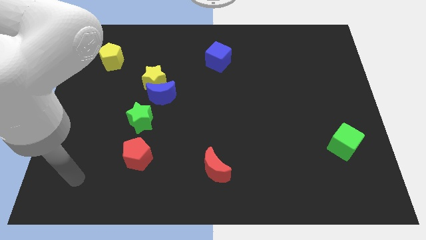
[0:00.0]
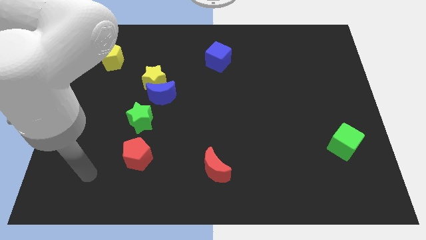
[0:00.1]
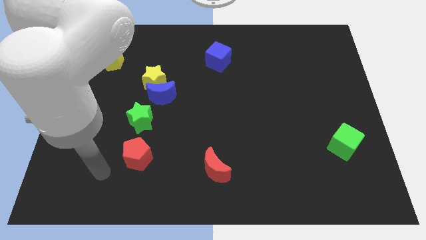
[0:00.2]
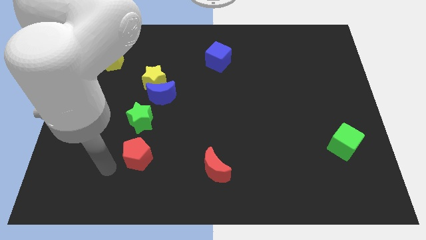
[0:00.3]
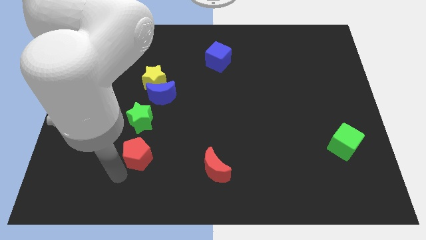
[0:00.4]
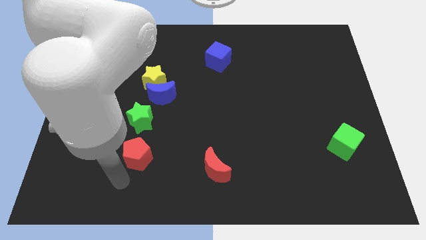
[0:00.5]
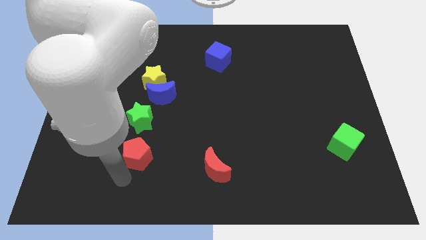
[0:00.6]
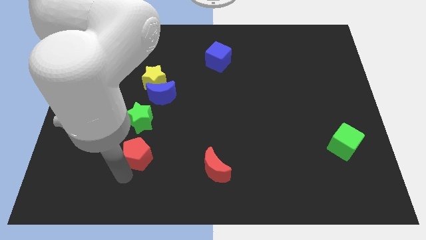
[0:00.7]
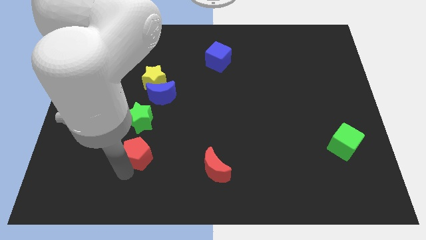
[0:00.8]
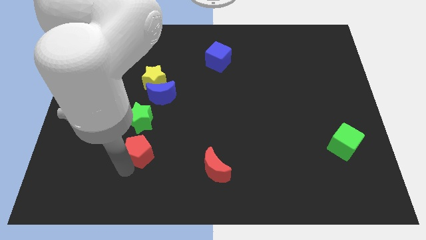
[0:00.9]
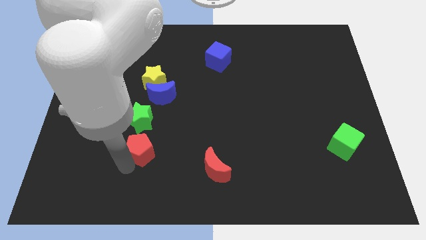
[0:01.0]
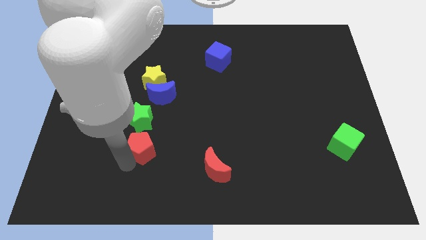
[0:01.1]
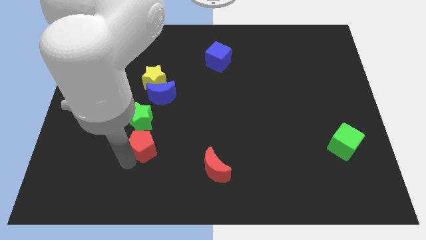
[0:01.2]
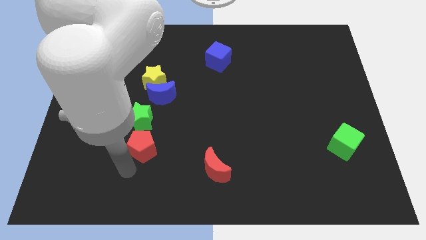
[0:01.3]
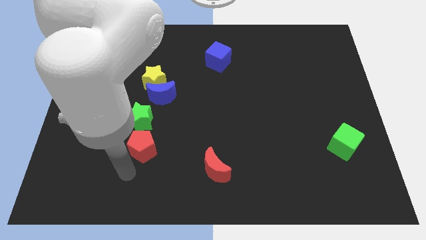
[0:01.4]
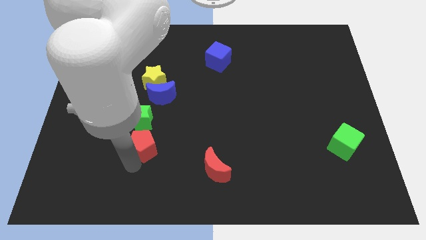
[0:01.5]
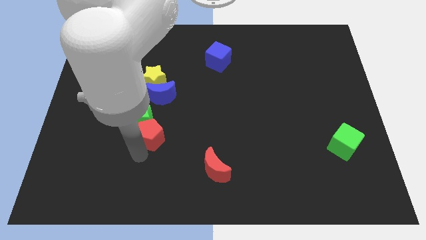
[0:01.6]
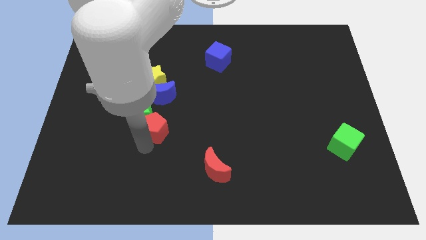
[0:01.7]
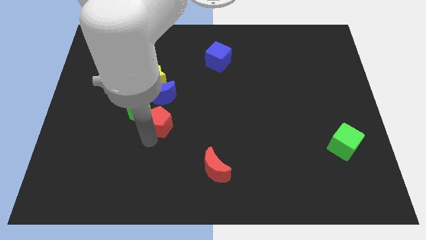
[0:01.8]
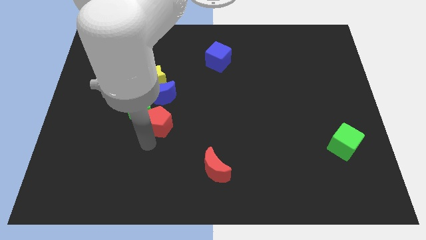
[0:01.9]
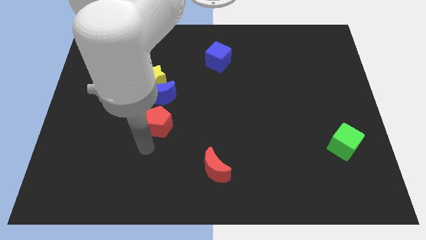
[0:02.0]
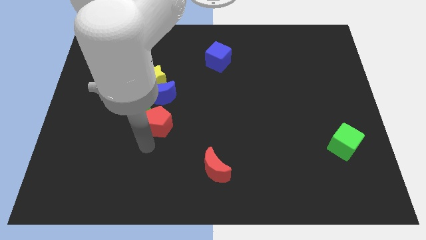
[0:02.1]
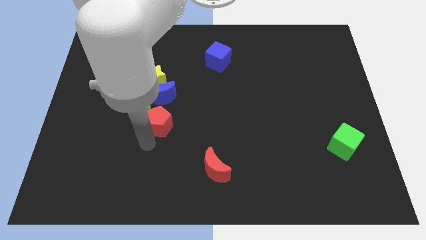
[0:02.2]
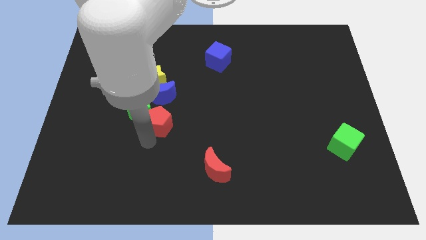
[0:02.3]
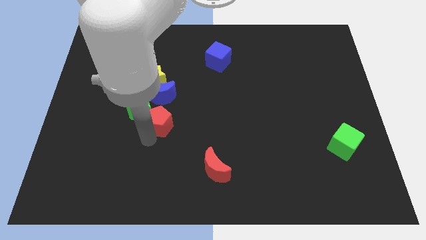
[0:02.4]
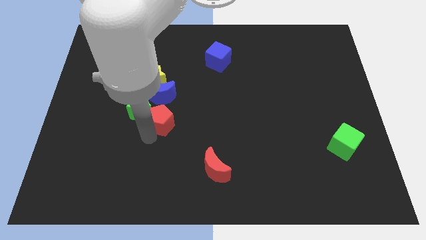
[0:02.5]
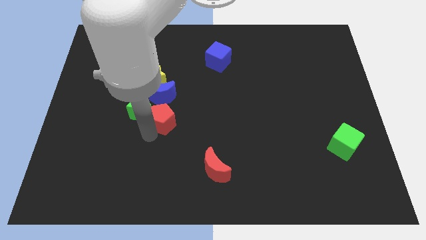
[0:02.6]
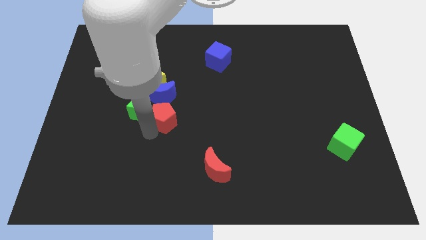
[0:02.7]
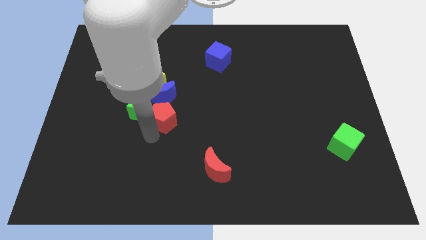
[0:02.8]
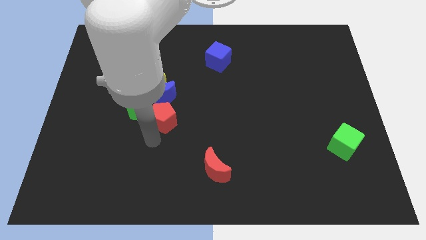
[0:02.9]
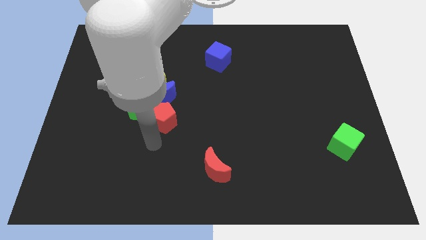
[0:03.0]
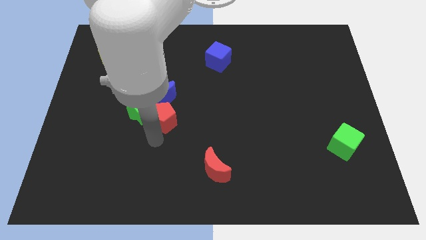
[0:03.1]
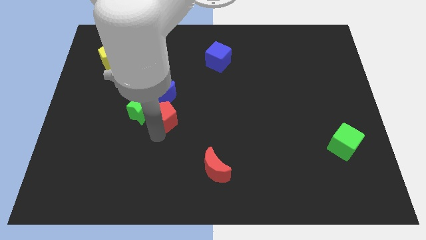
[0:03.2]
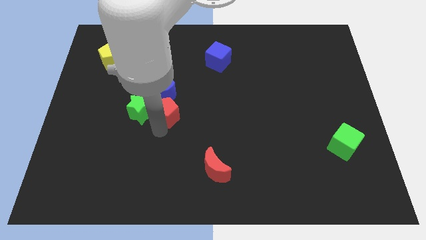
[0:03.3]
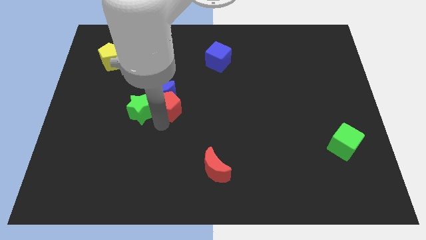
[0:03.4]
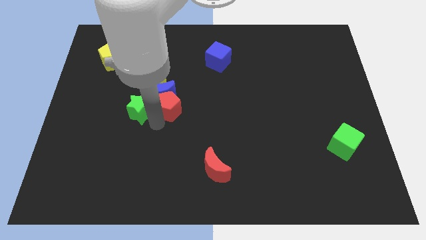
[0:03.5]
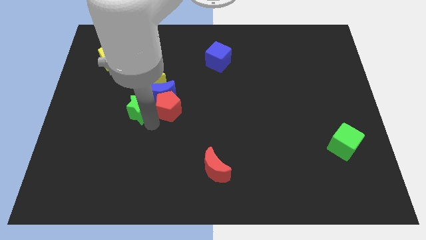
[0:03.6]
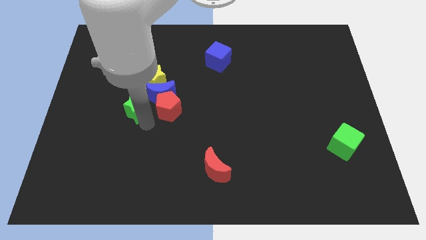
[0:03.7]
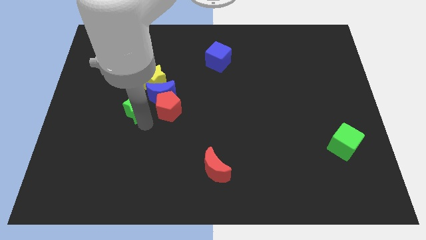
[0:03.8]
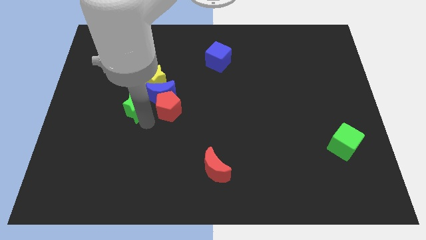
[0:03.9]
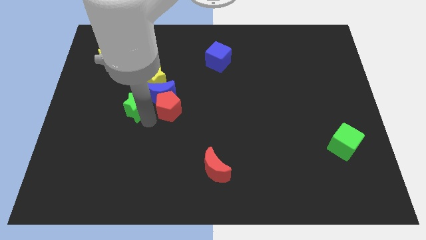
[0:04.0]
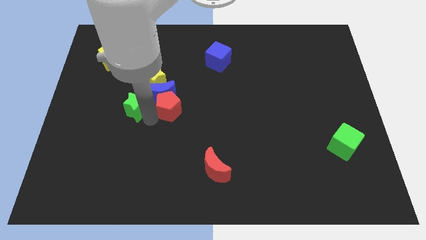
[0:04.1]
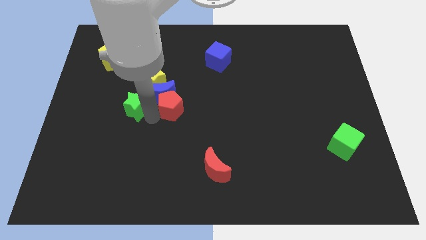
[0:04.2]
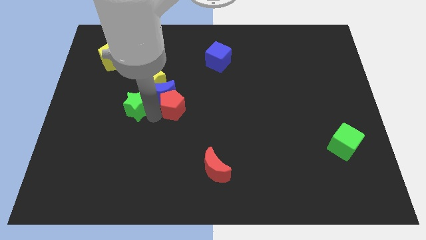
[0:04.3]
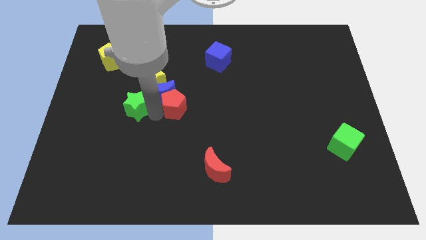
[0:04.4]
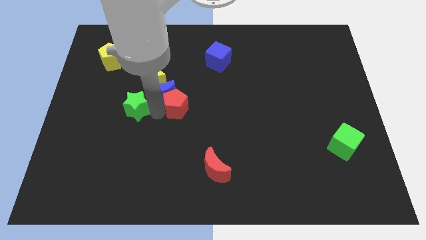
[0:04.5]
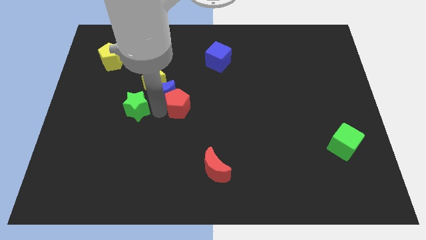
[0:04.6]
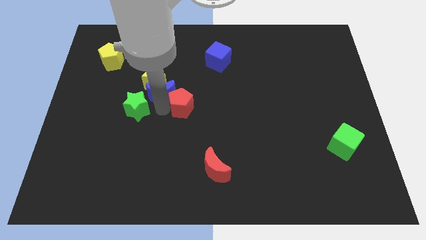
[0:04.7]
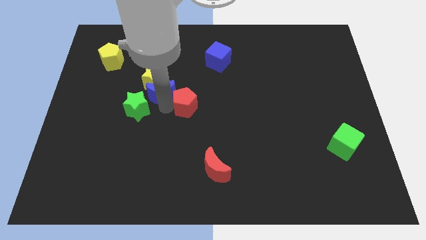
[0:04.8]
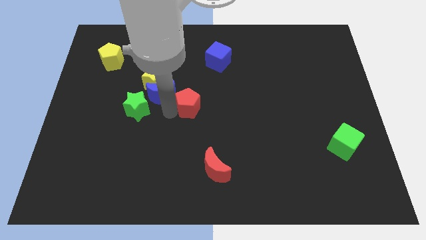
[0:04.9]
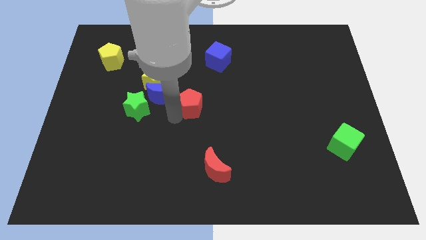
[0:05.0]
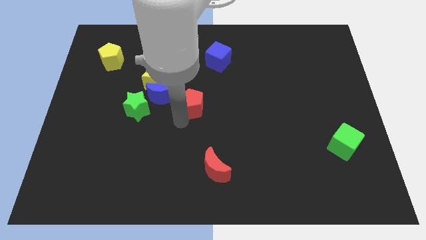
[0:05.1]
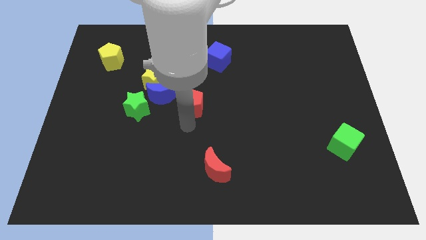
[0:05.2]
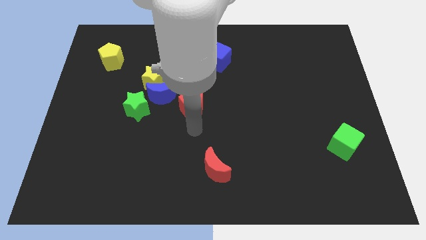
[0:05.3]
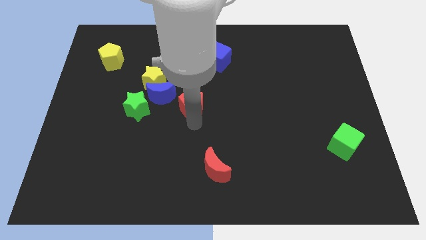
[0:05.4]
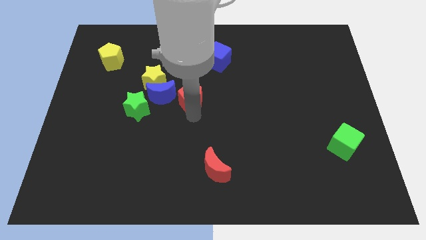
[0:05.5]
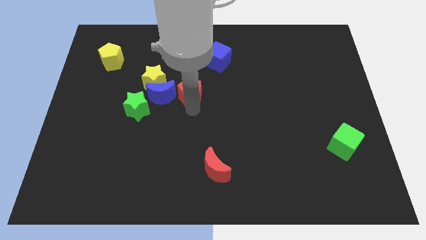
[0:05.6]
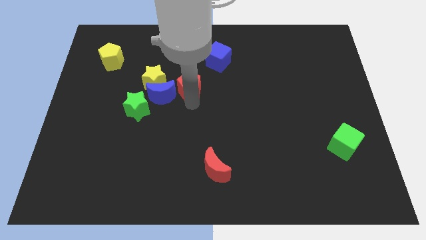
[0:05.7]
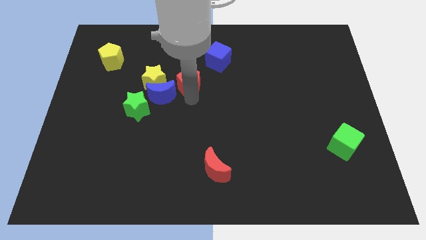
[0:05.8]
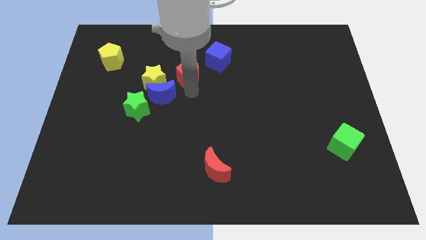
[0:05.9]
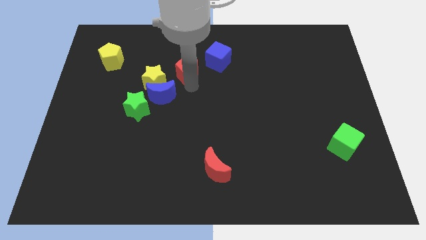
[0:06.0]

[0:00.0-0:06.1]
move the red pentagon to the left of the blue cube

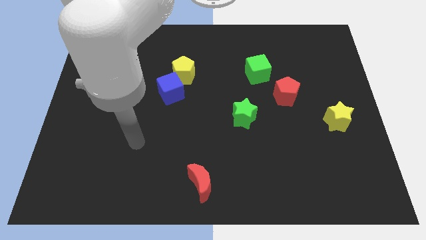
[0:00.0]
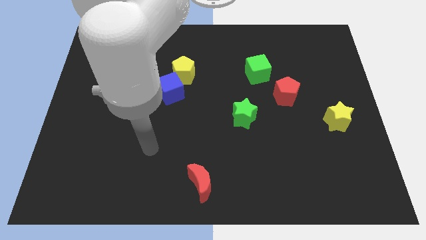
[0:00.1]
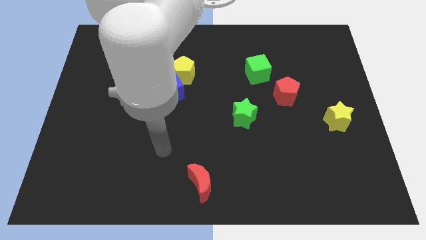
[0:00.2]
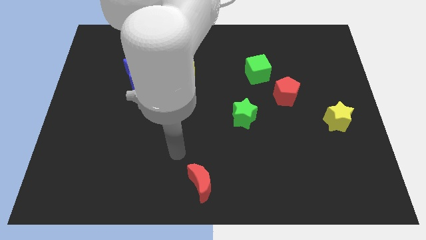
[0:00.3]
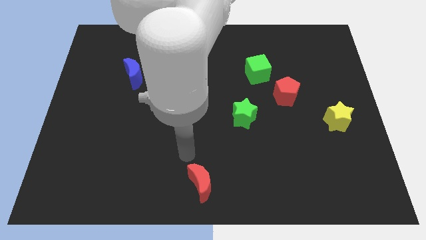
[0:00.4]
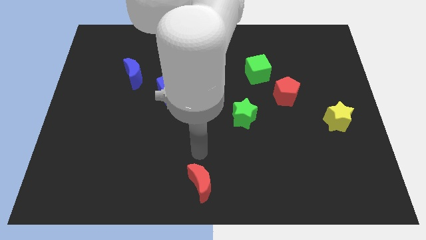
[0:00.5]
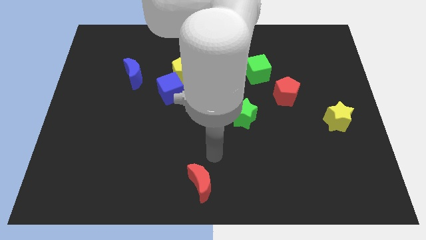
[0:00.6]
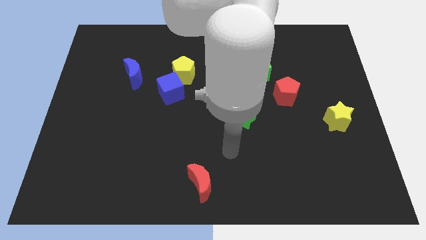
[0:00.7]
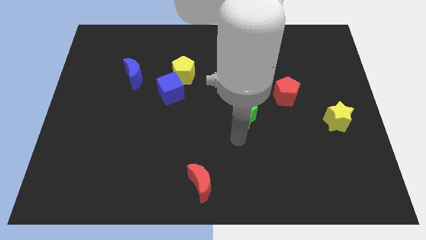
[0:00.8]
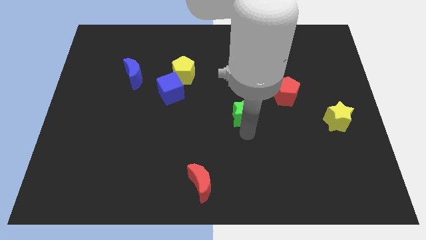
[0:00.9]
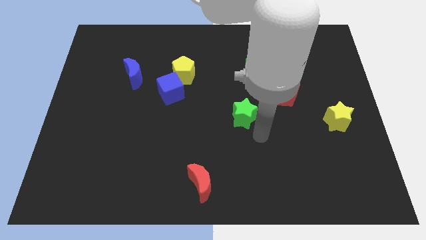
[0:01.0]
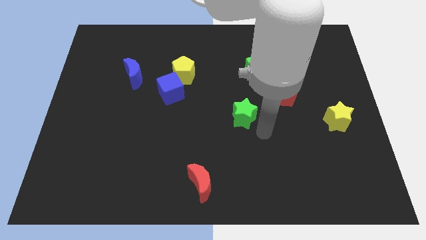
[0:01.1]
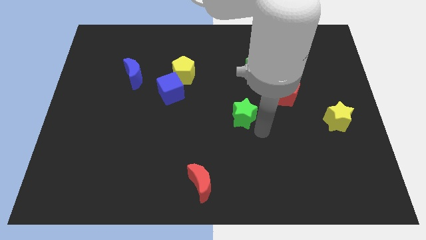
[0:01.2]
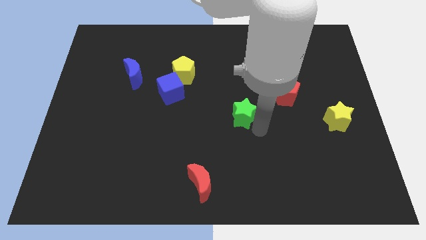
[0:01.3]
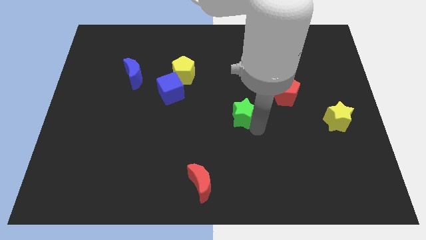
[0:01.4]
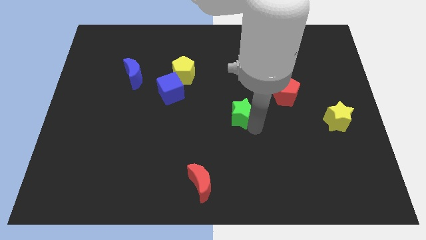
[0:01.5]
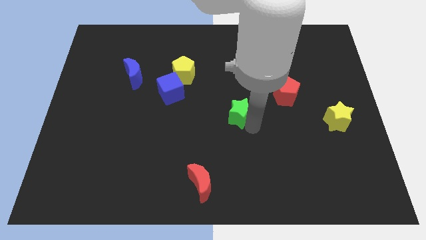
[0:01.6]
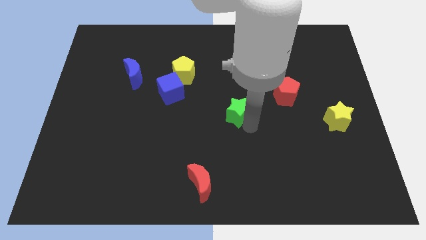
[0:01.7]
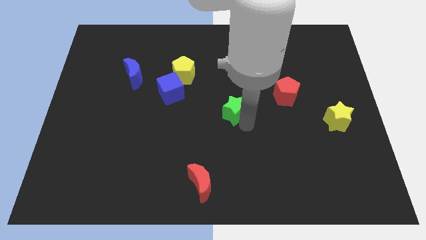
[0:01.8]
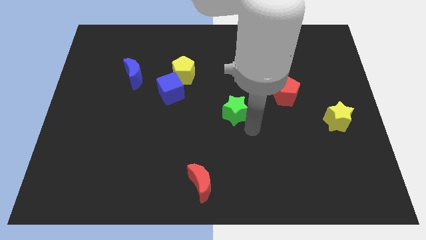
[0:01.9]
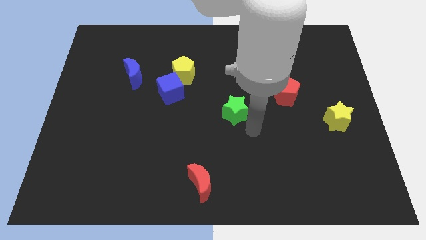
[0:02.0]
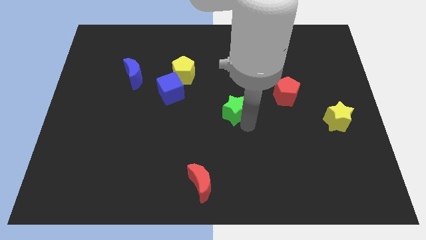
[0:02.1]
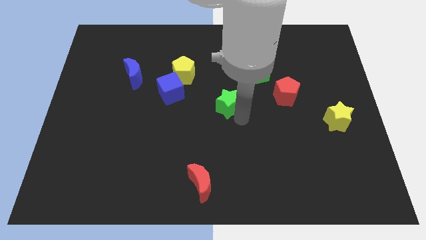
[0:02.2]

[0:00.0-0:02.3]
move the green star to the right side of the blue cube
